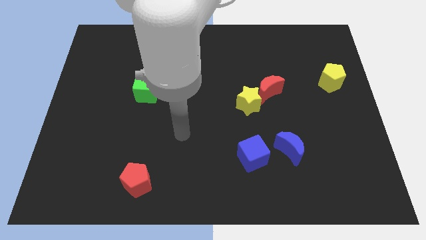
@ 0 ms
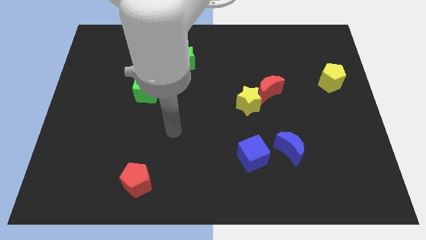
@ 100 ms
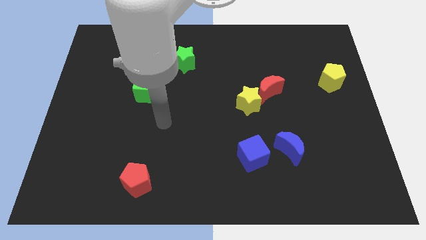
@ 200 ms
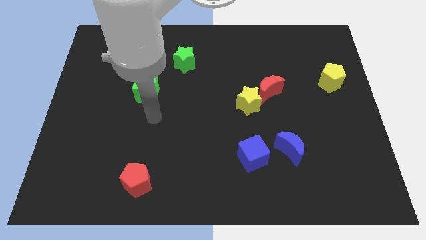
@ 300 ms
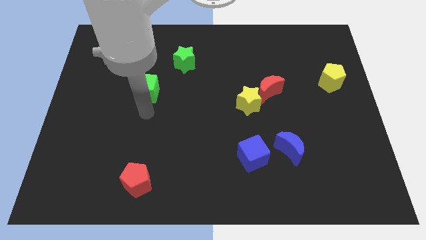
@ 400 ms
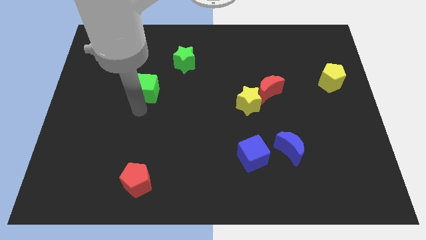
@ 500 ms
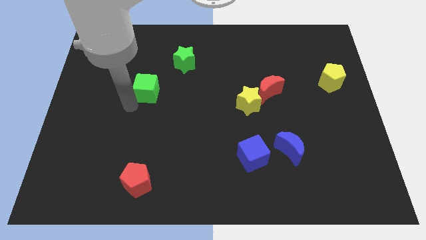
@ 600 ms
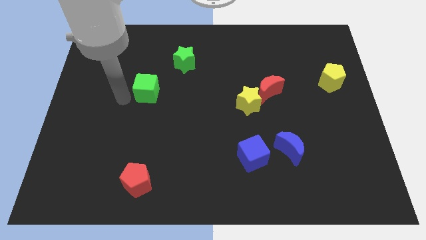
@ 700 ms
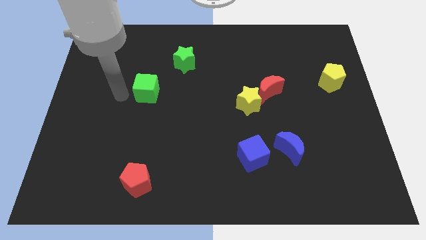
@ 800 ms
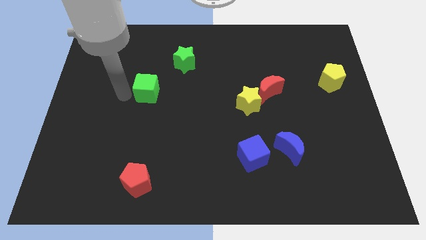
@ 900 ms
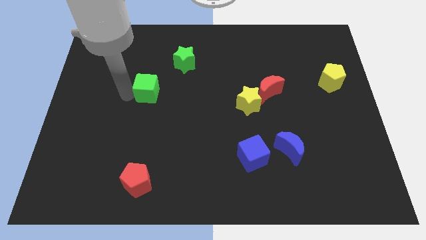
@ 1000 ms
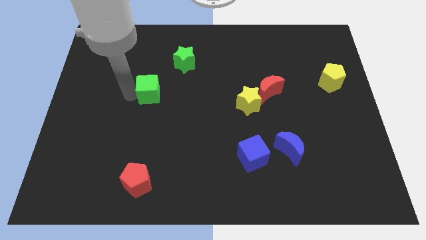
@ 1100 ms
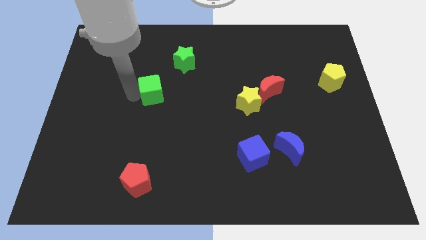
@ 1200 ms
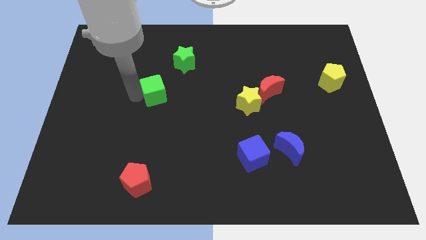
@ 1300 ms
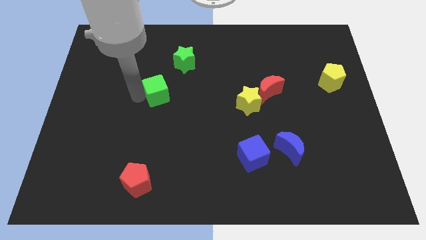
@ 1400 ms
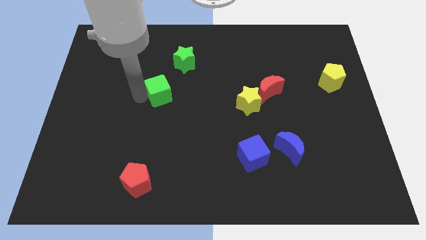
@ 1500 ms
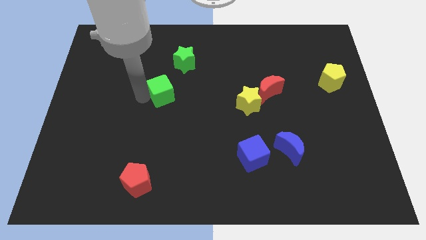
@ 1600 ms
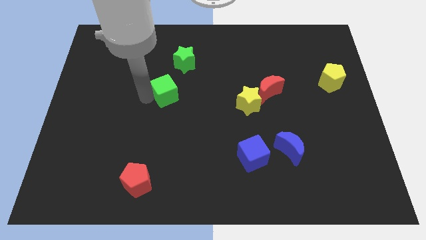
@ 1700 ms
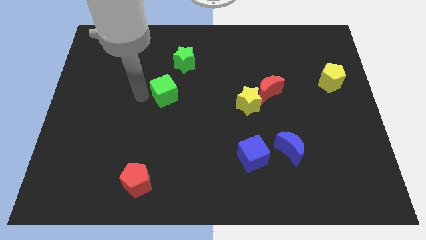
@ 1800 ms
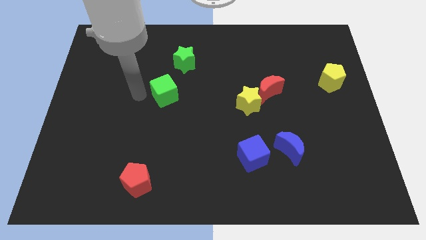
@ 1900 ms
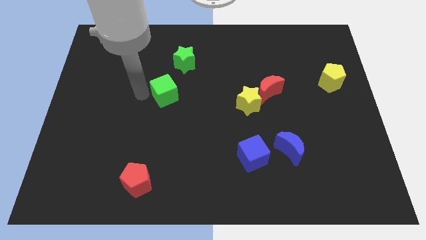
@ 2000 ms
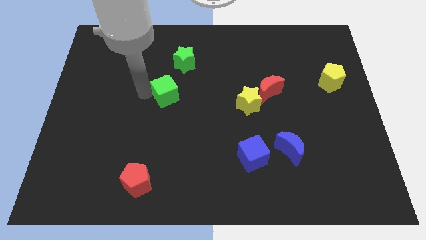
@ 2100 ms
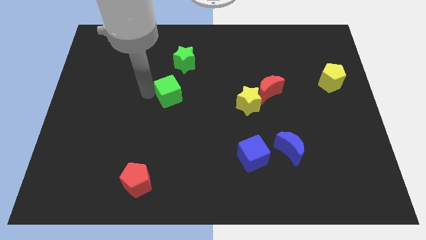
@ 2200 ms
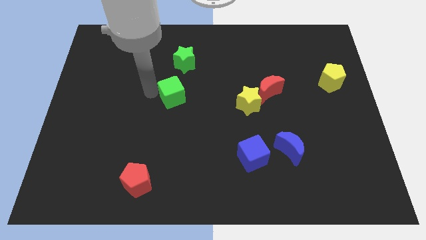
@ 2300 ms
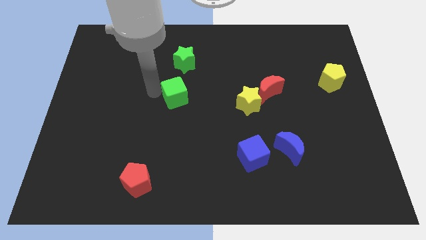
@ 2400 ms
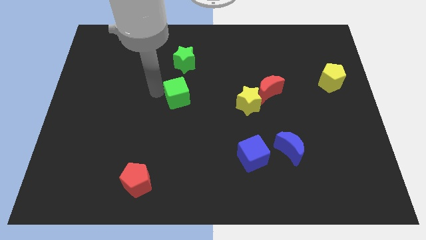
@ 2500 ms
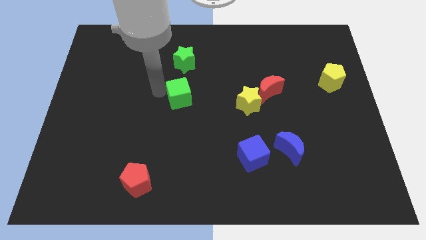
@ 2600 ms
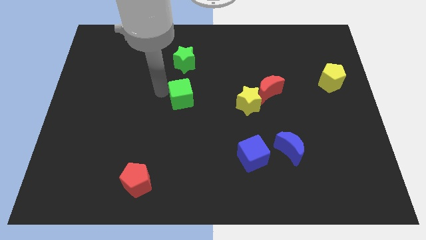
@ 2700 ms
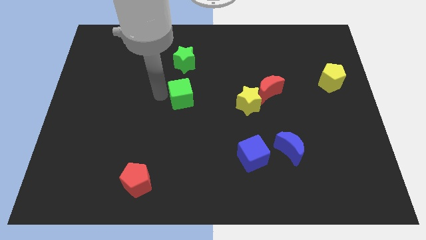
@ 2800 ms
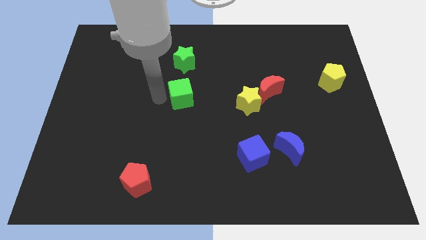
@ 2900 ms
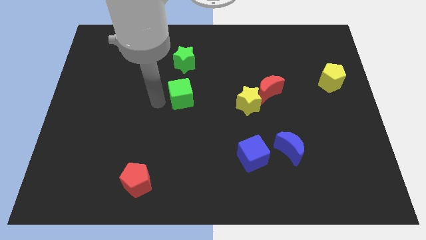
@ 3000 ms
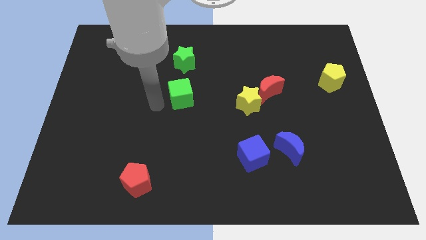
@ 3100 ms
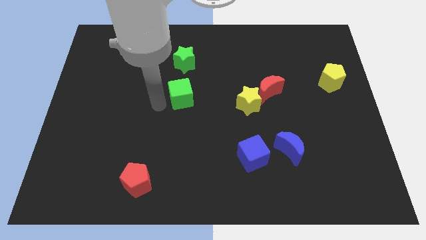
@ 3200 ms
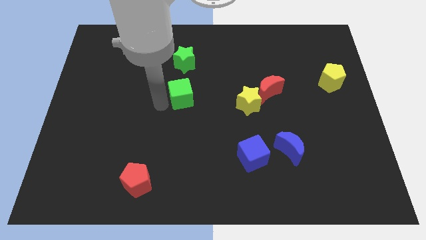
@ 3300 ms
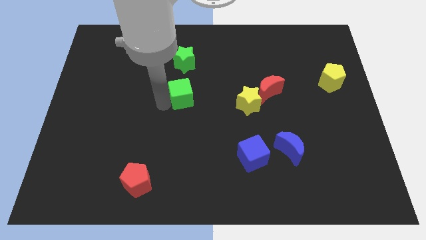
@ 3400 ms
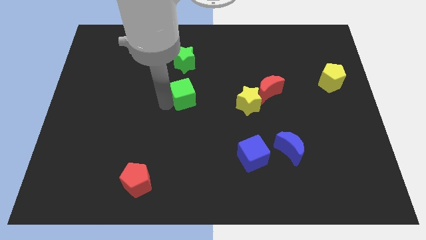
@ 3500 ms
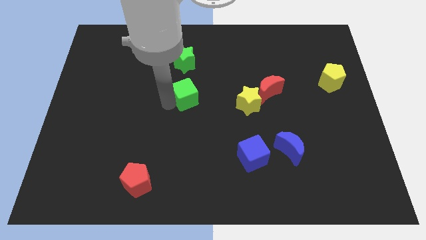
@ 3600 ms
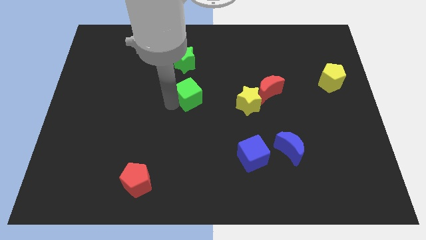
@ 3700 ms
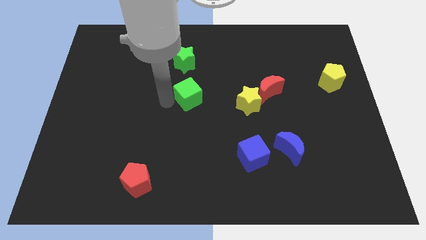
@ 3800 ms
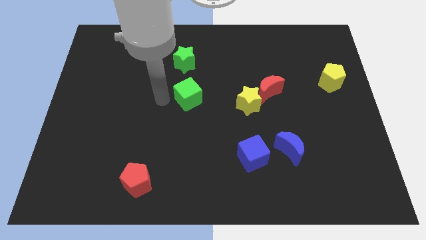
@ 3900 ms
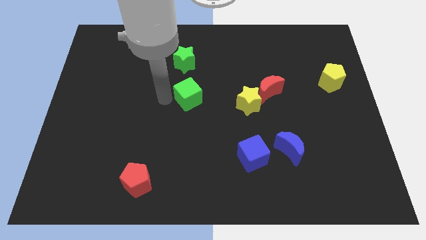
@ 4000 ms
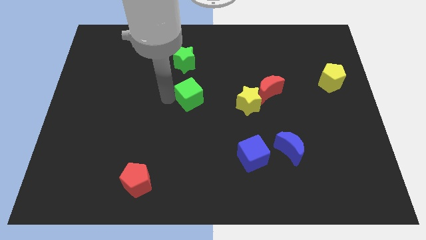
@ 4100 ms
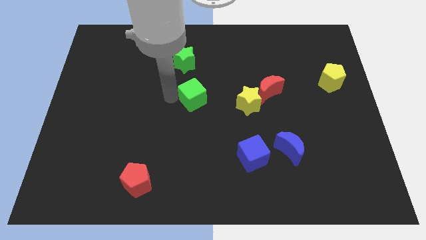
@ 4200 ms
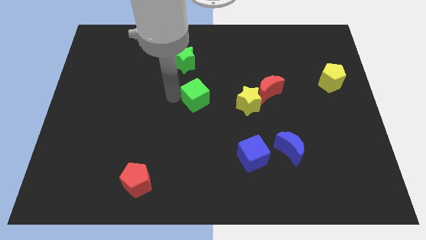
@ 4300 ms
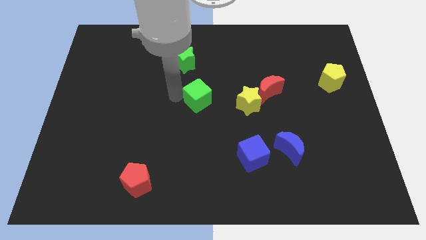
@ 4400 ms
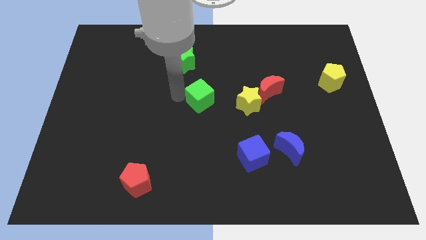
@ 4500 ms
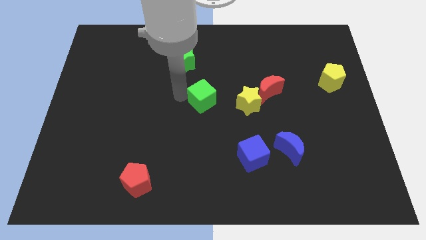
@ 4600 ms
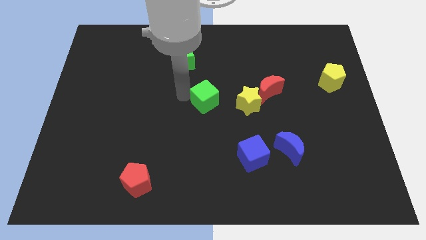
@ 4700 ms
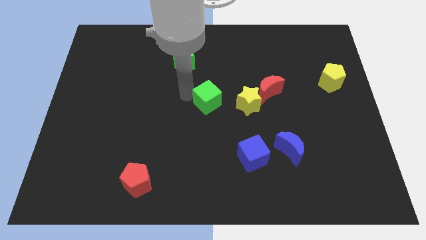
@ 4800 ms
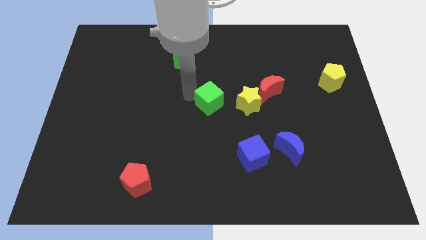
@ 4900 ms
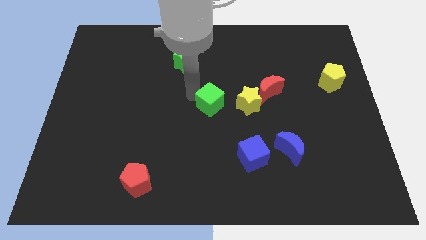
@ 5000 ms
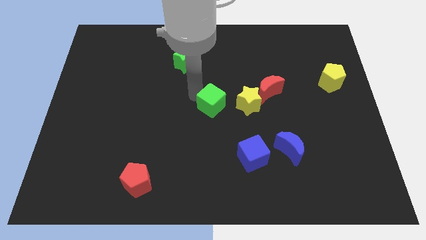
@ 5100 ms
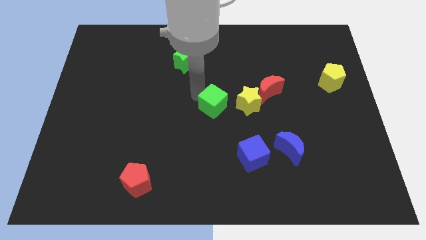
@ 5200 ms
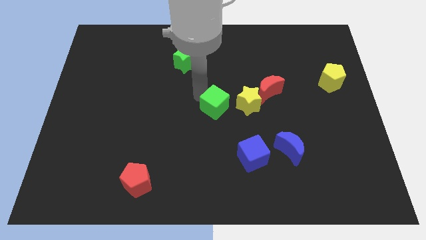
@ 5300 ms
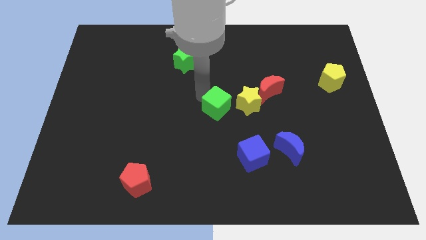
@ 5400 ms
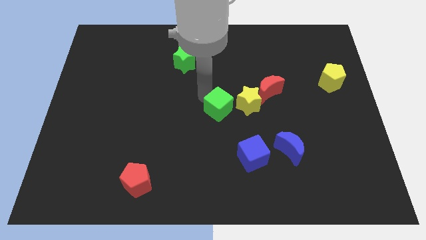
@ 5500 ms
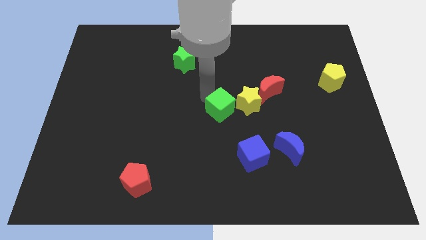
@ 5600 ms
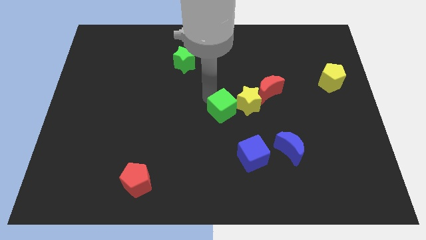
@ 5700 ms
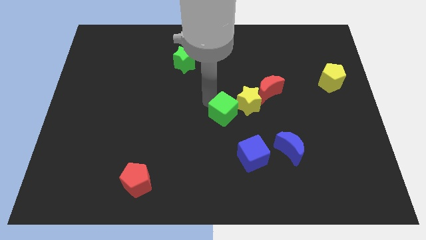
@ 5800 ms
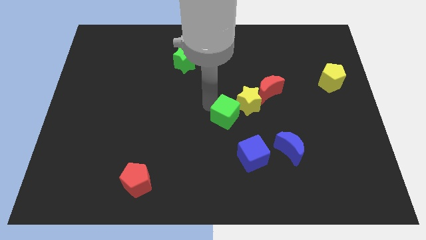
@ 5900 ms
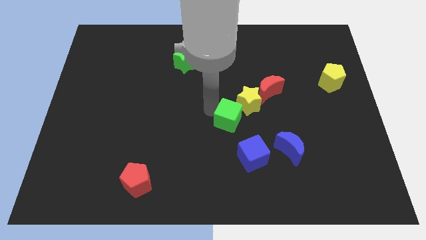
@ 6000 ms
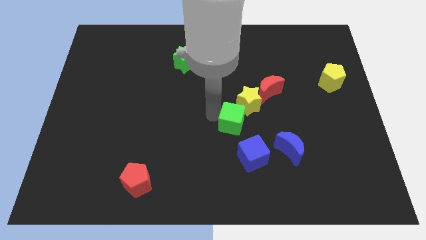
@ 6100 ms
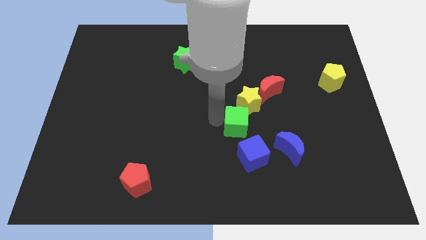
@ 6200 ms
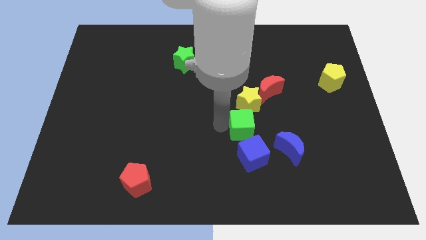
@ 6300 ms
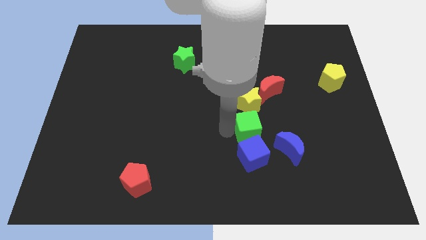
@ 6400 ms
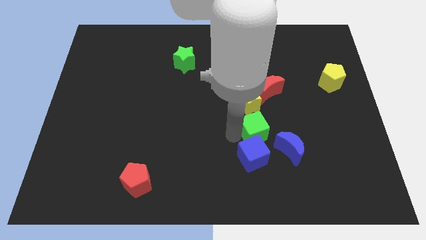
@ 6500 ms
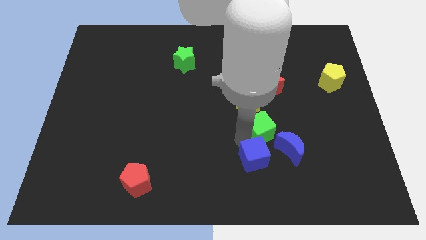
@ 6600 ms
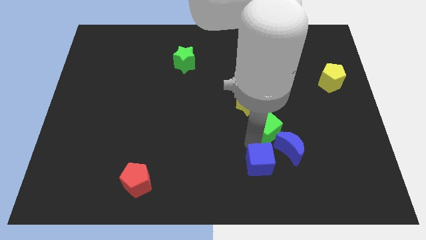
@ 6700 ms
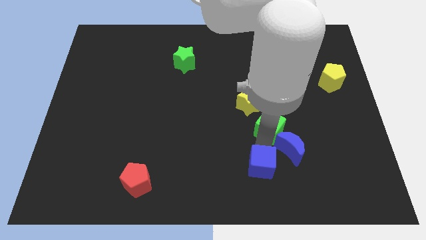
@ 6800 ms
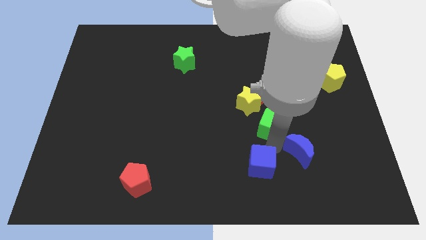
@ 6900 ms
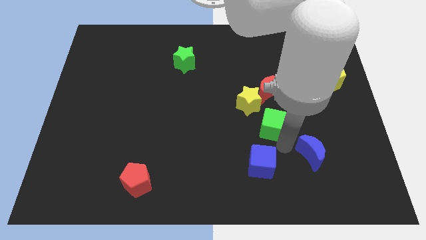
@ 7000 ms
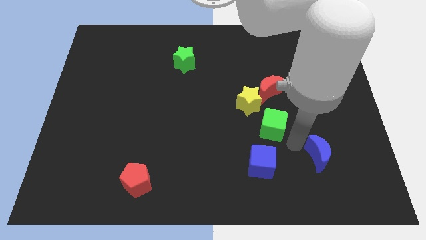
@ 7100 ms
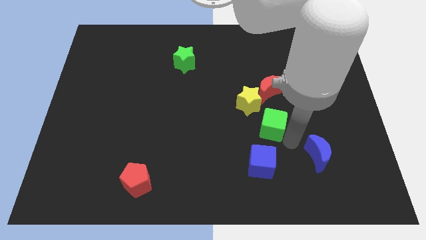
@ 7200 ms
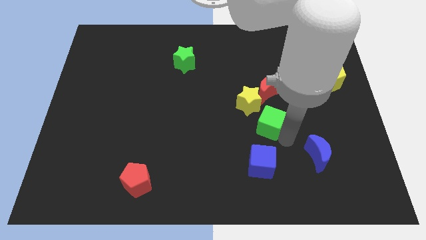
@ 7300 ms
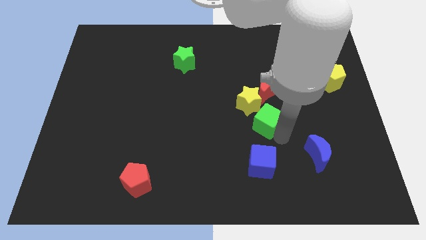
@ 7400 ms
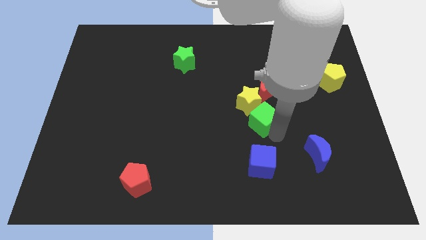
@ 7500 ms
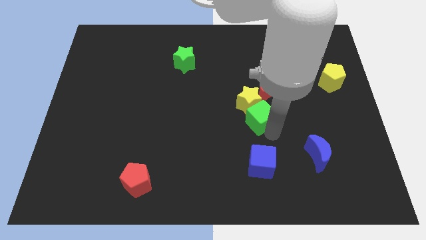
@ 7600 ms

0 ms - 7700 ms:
put the green cube next to the yellow star
